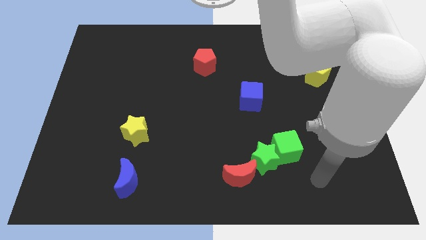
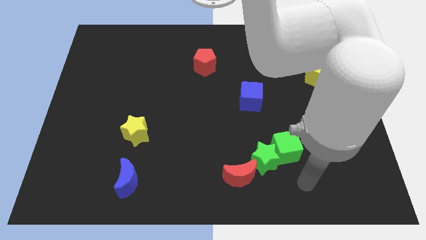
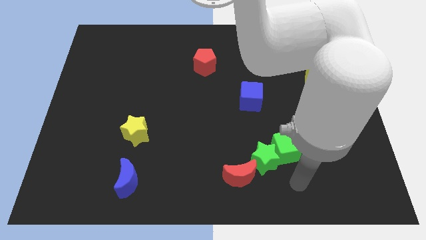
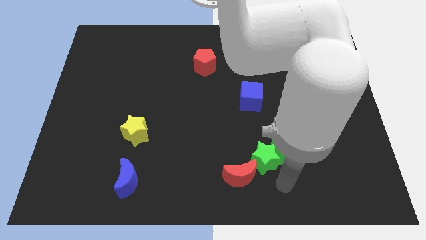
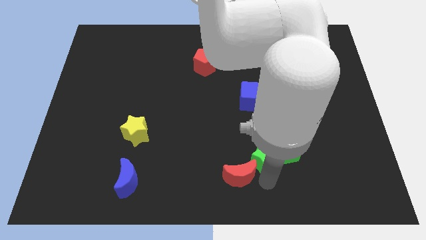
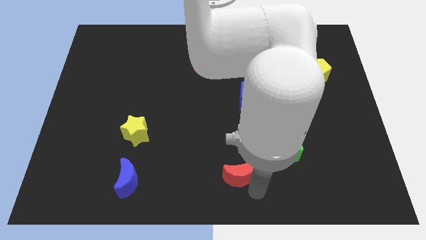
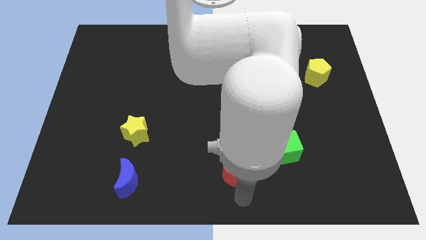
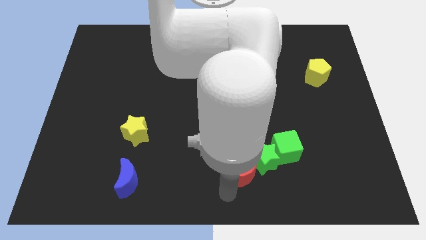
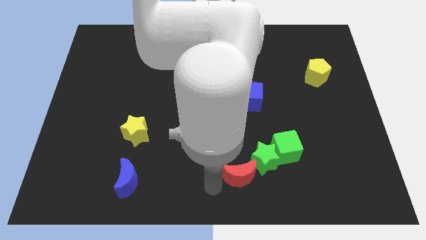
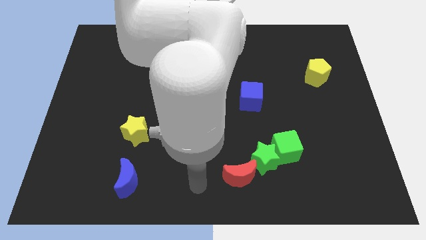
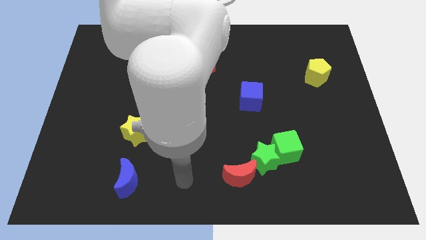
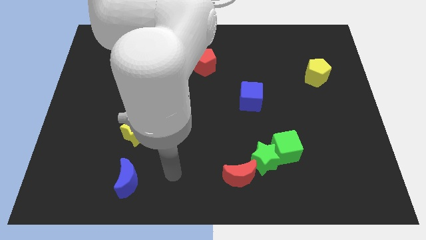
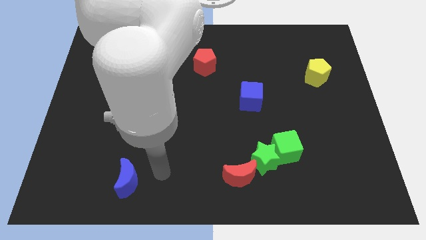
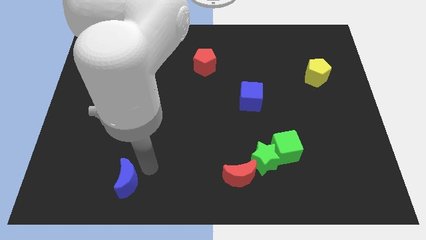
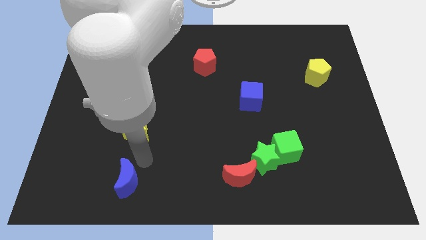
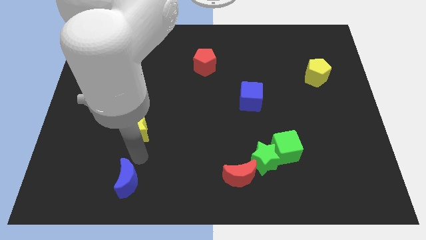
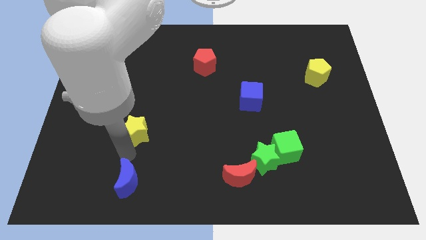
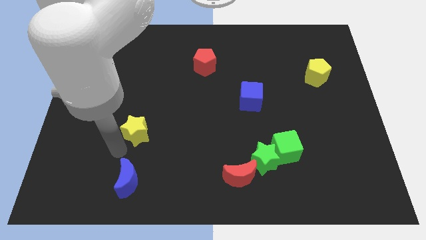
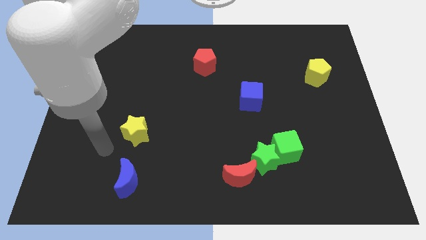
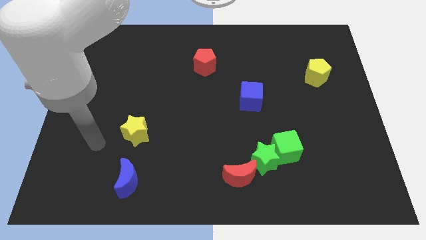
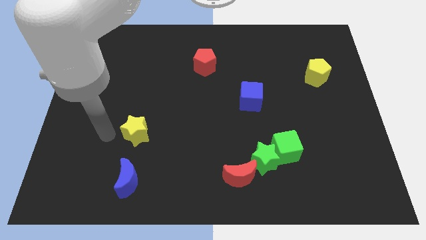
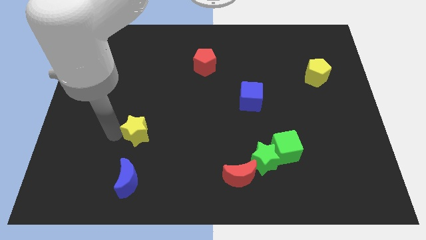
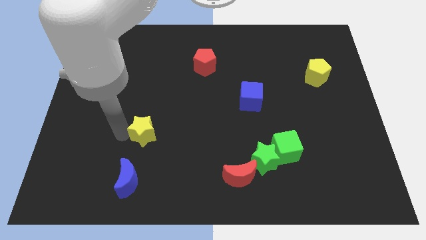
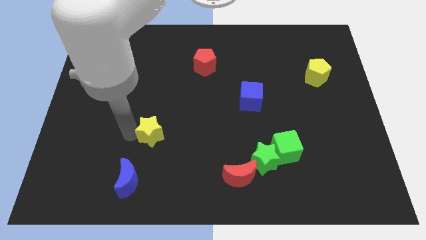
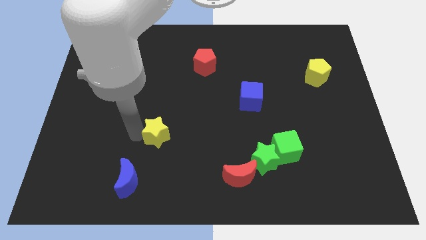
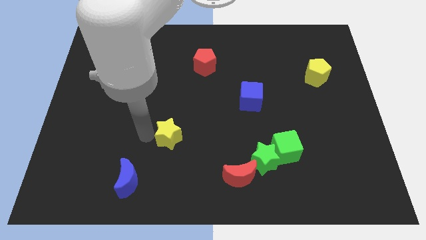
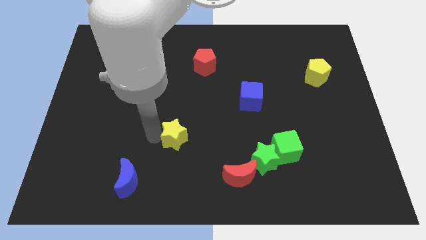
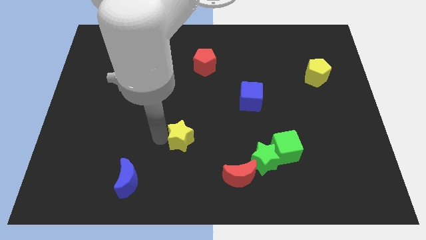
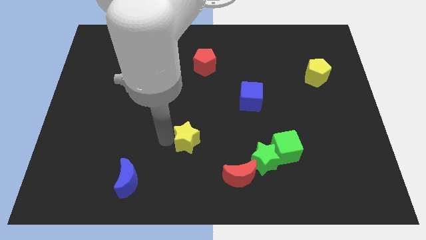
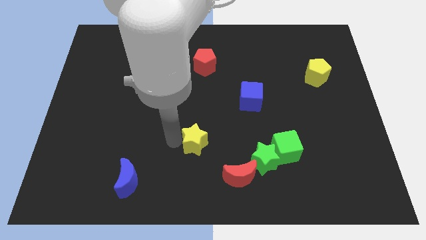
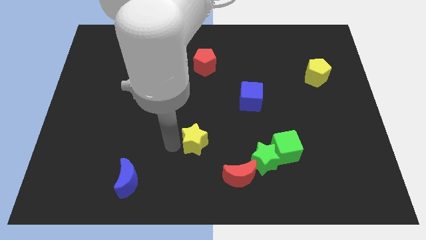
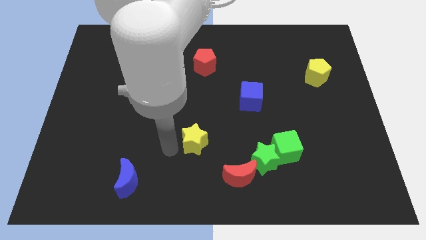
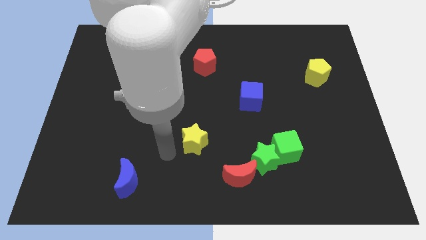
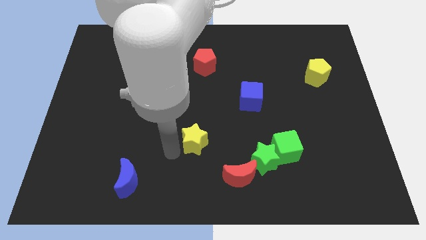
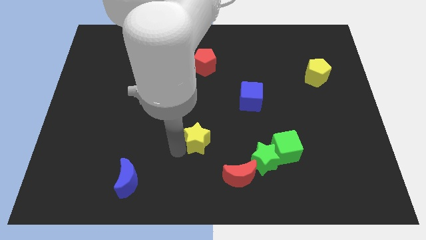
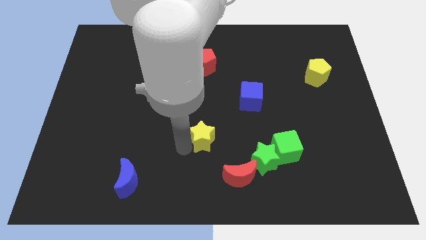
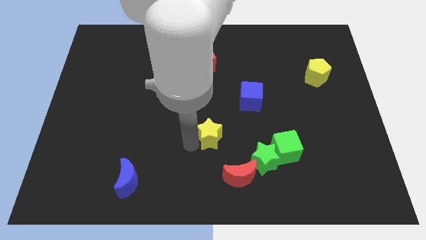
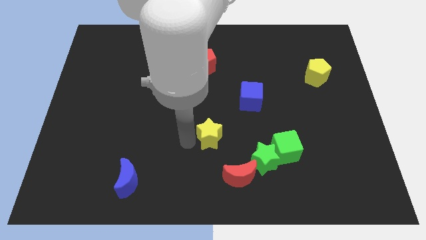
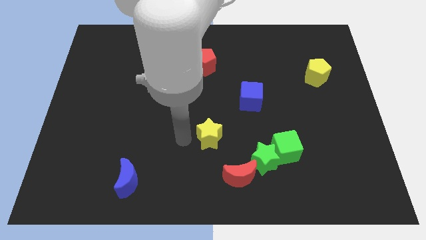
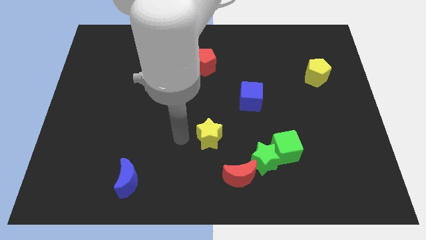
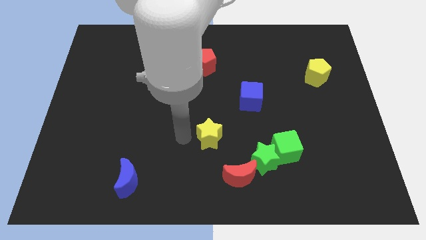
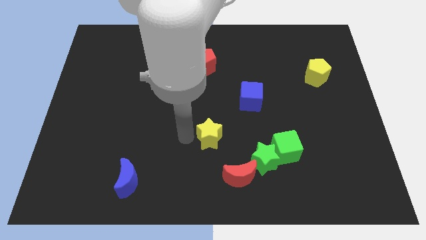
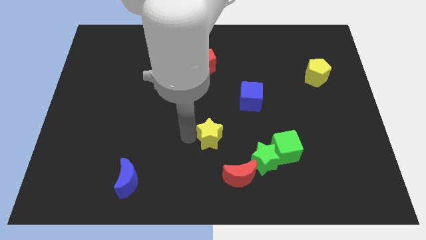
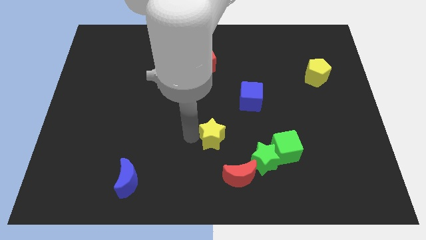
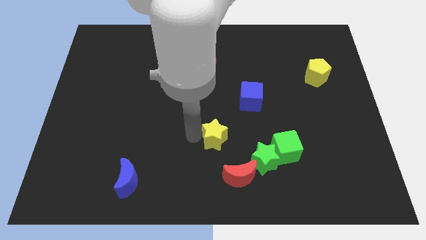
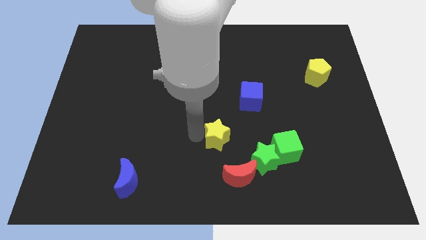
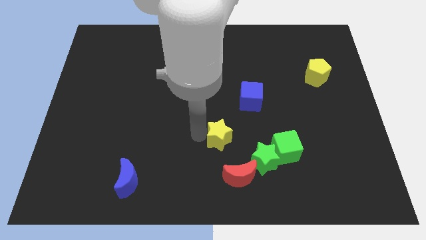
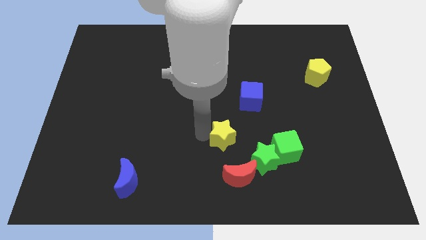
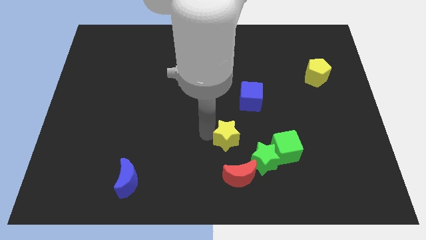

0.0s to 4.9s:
slide the yellow star right

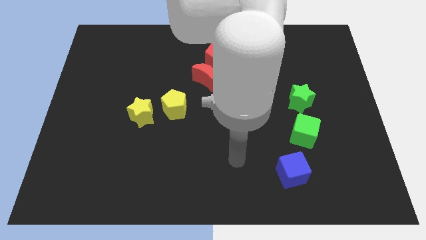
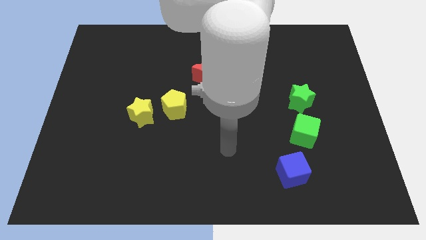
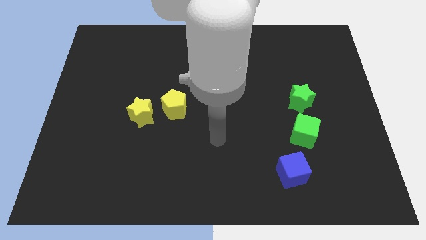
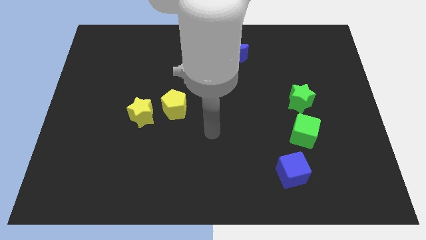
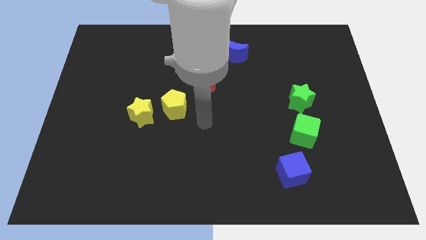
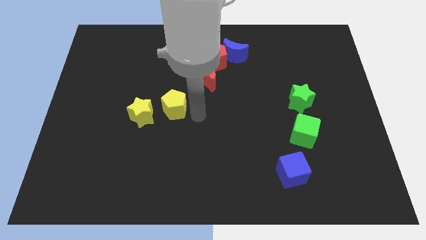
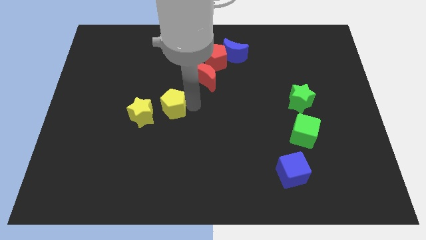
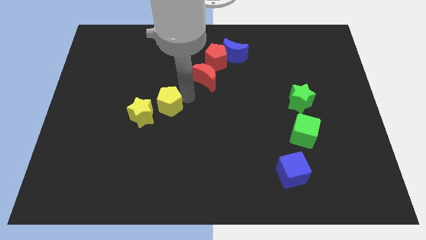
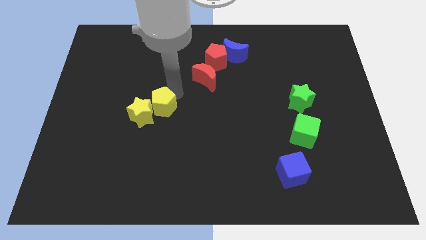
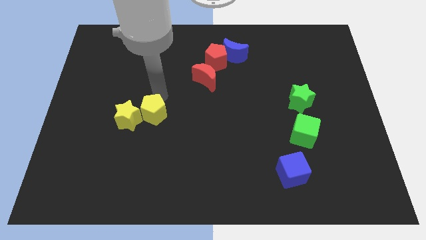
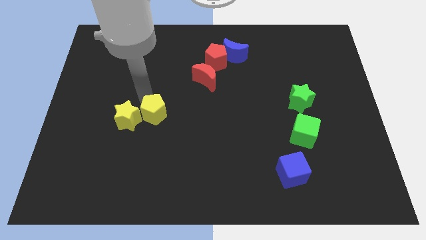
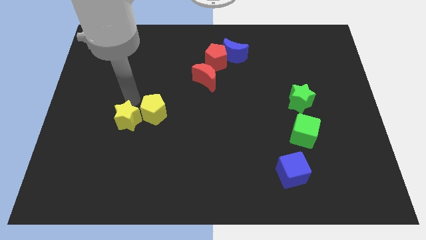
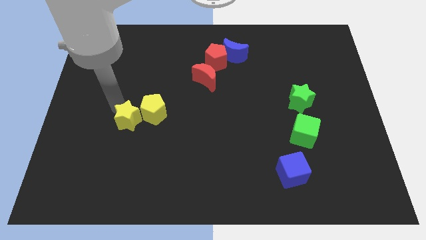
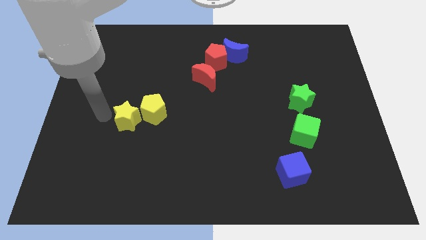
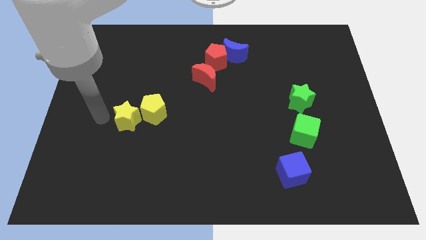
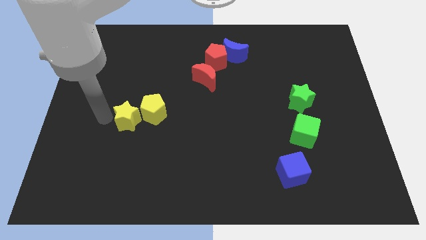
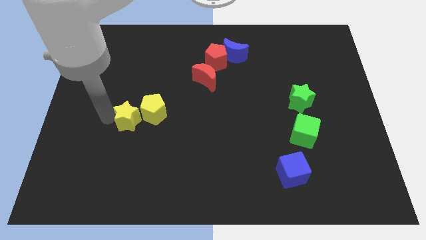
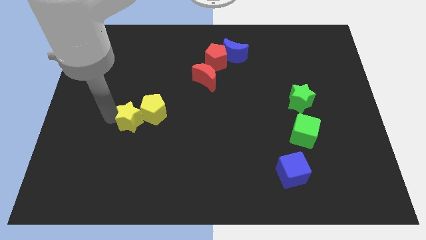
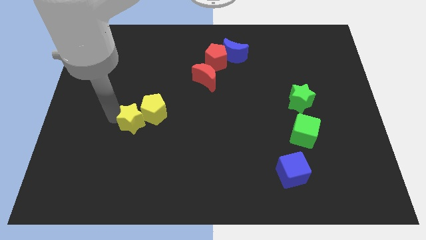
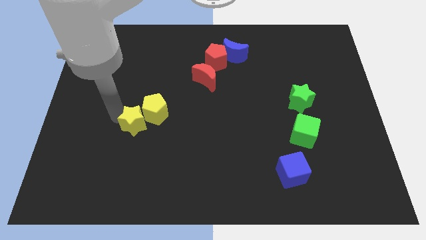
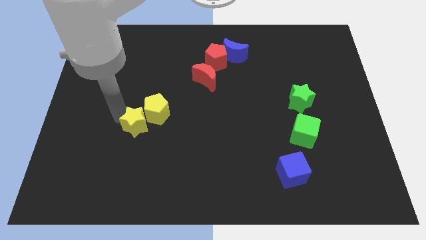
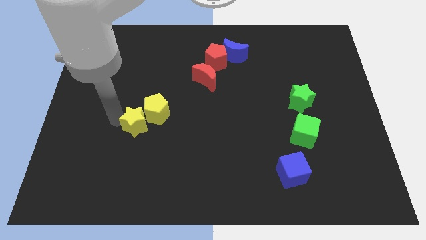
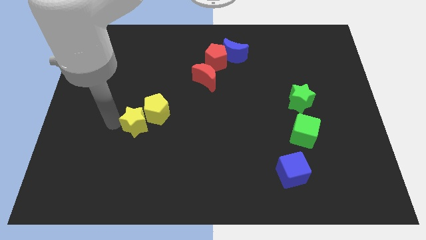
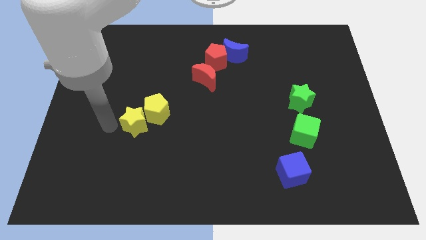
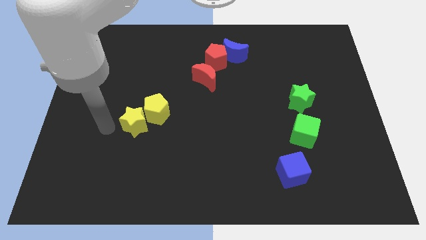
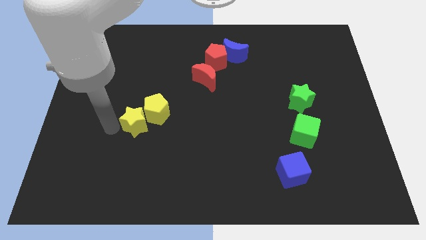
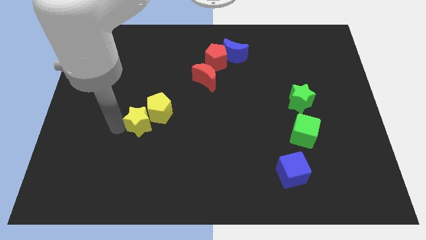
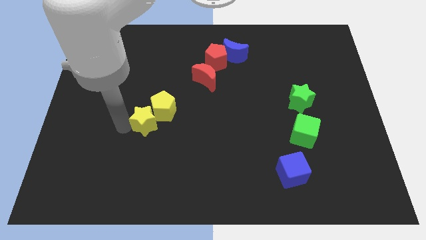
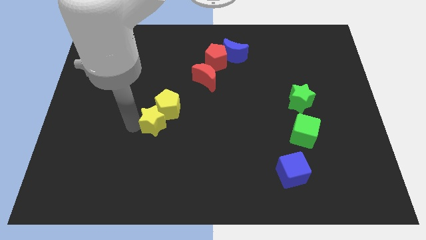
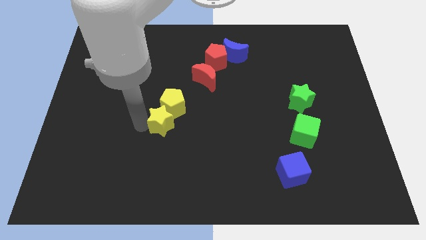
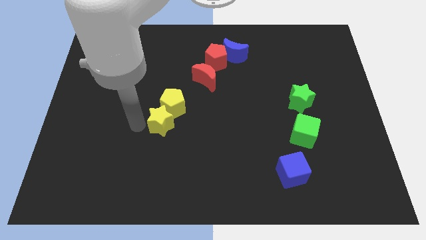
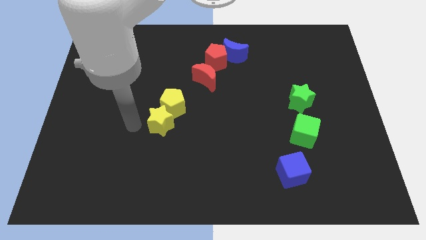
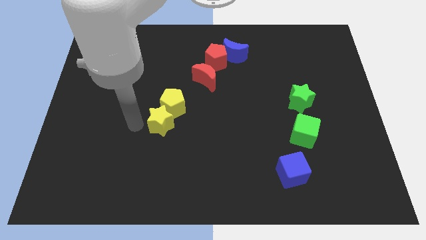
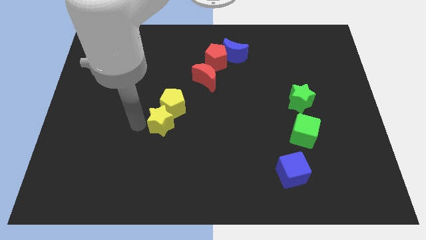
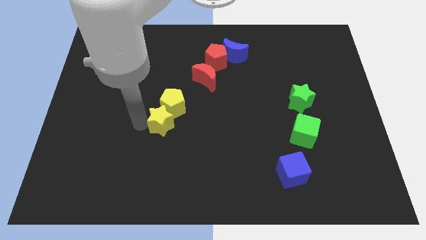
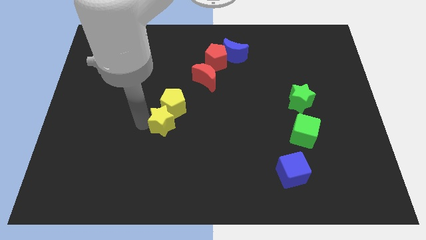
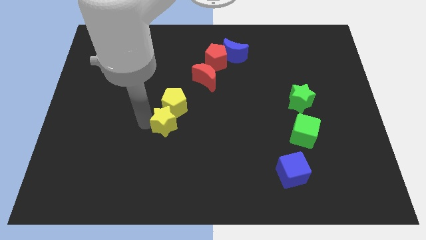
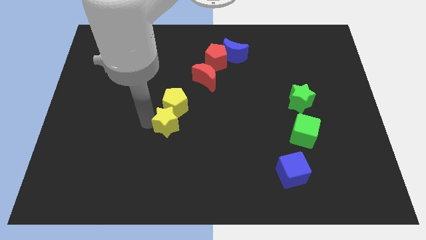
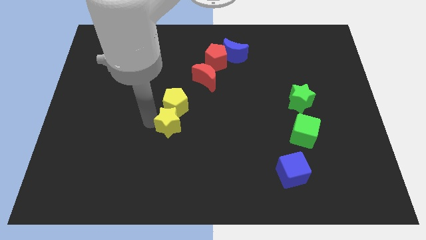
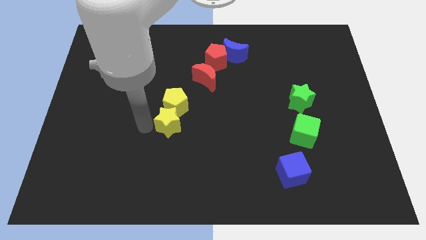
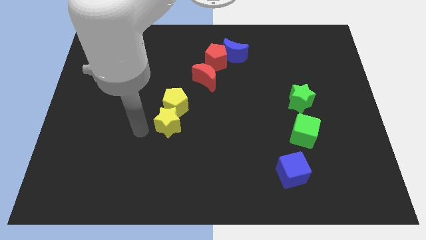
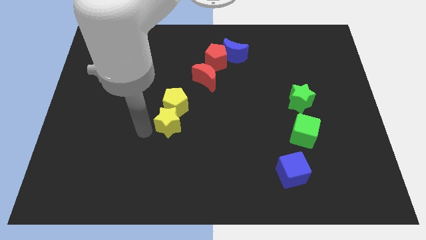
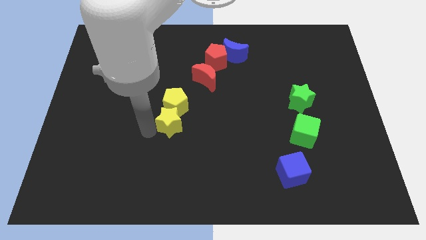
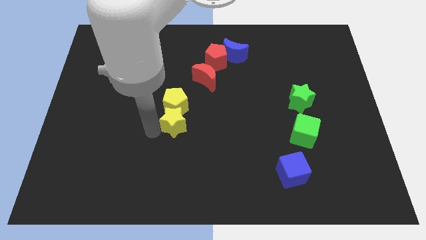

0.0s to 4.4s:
push the yellow star a little to the right
